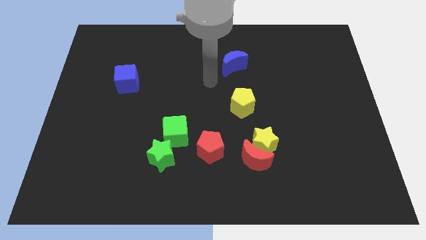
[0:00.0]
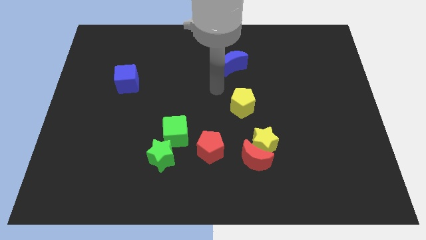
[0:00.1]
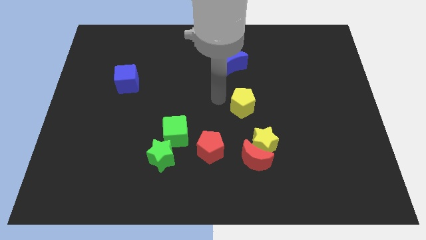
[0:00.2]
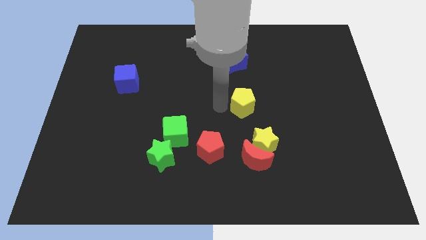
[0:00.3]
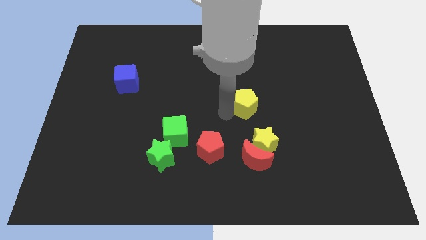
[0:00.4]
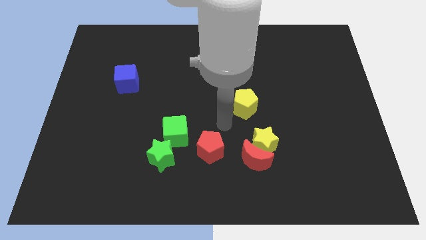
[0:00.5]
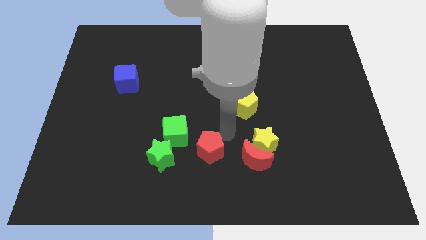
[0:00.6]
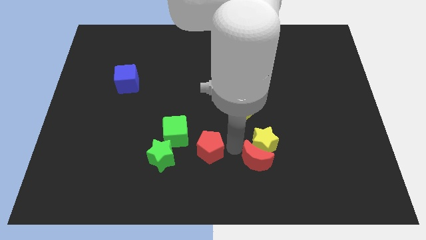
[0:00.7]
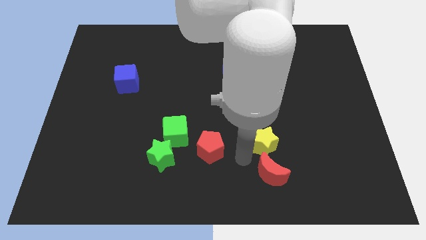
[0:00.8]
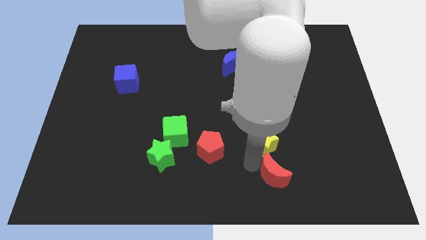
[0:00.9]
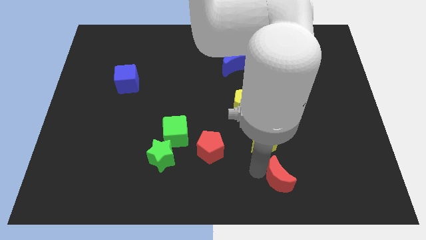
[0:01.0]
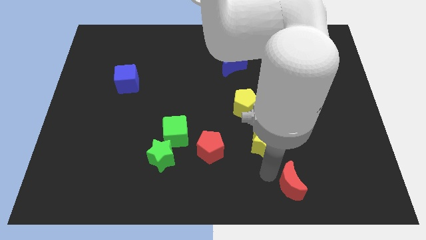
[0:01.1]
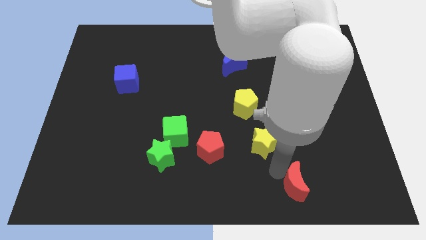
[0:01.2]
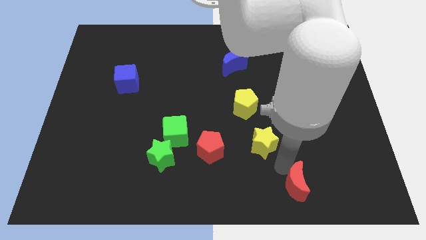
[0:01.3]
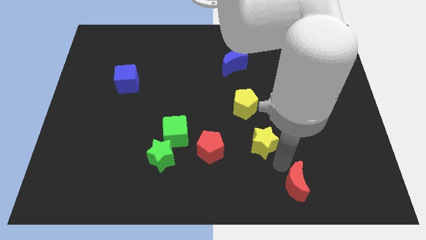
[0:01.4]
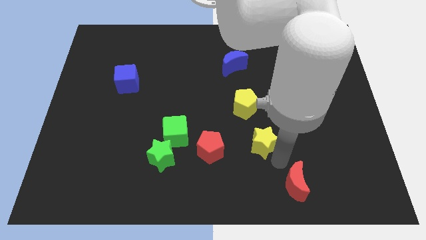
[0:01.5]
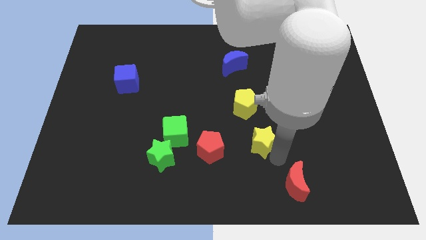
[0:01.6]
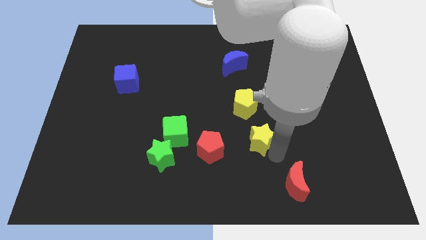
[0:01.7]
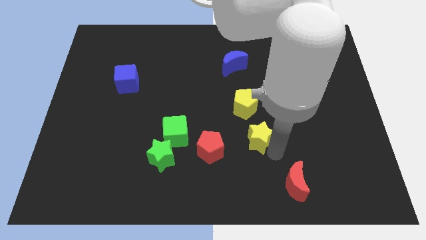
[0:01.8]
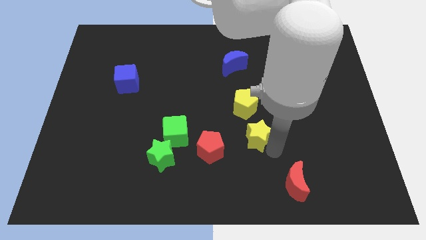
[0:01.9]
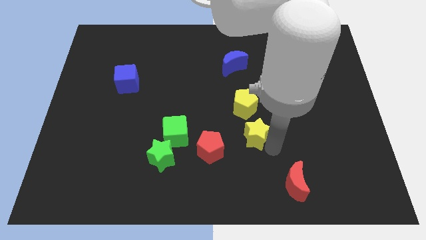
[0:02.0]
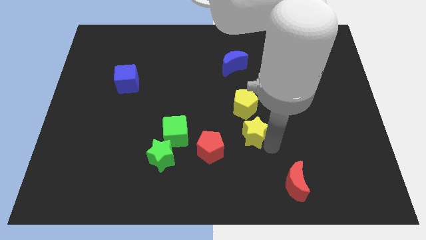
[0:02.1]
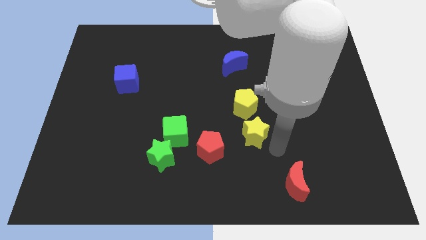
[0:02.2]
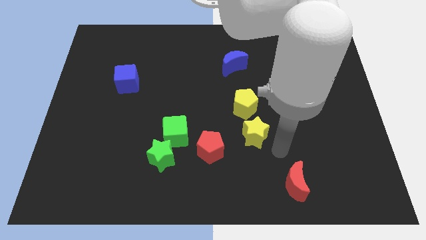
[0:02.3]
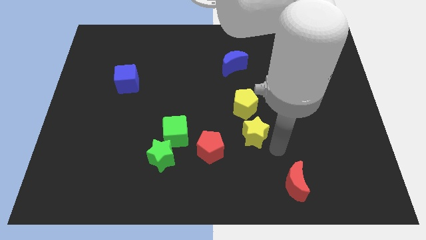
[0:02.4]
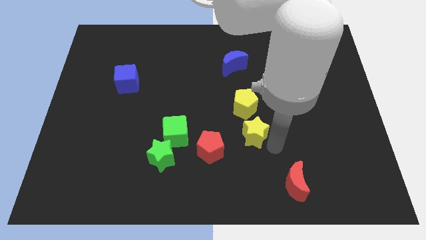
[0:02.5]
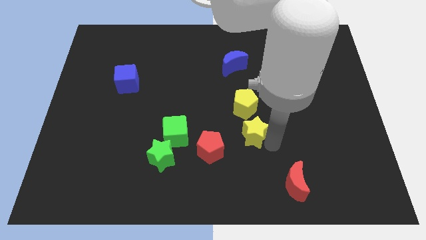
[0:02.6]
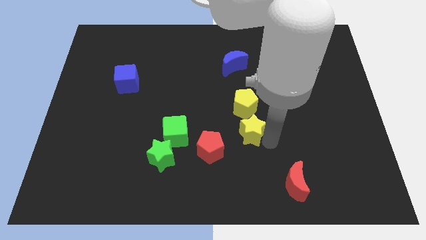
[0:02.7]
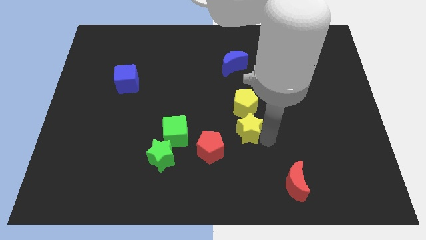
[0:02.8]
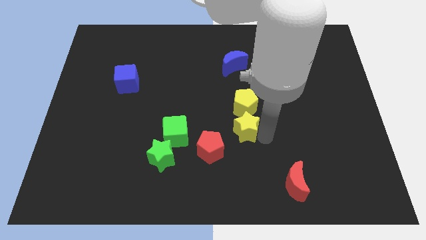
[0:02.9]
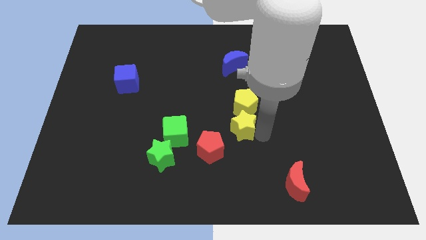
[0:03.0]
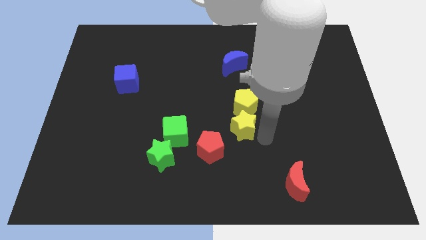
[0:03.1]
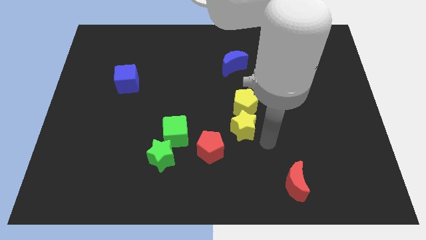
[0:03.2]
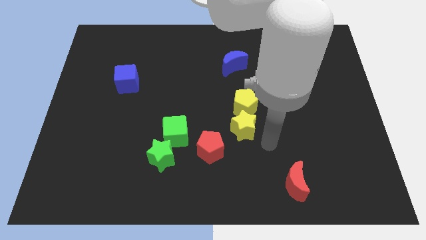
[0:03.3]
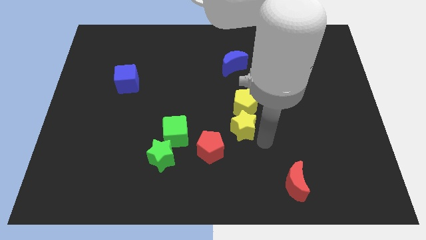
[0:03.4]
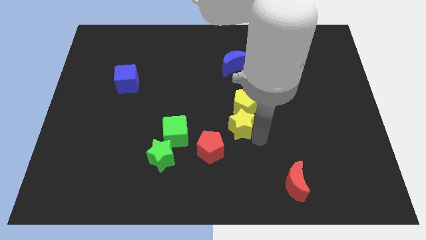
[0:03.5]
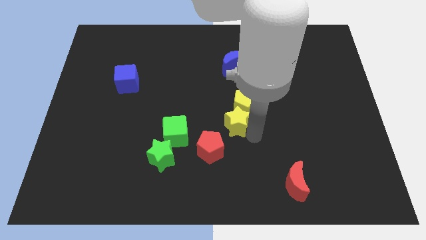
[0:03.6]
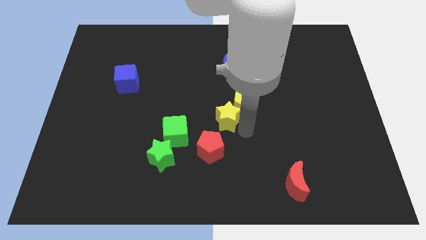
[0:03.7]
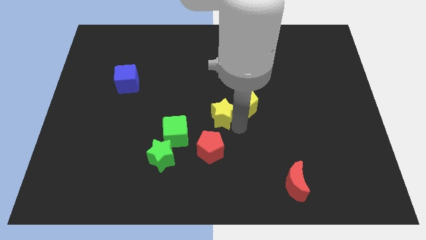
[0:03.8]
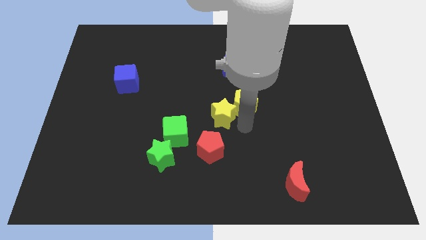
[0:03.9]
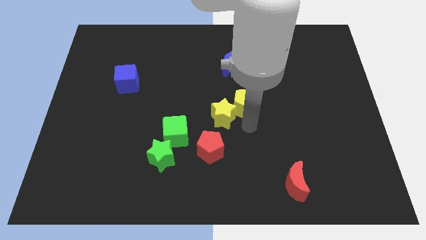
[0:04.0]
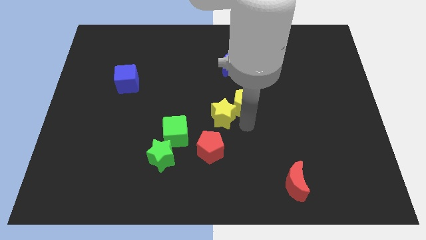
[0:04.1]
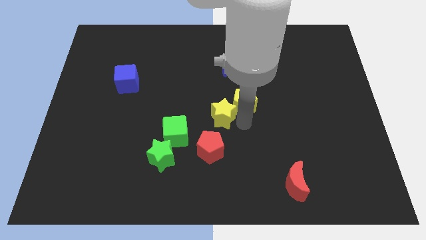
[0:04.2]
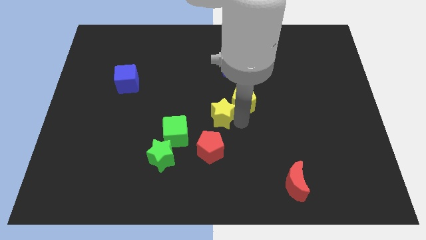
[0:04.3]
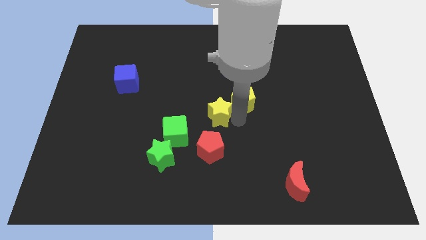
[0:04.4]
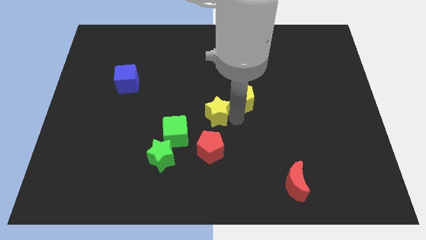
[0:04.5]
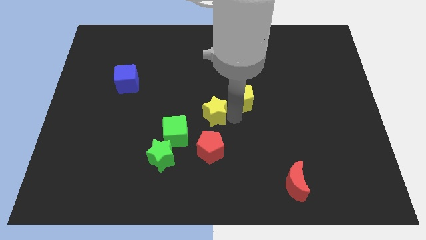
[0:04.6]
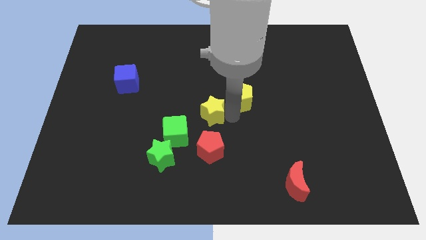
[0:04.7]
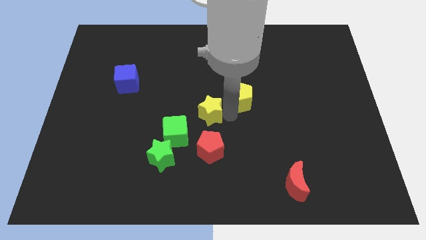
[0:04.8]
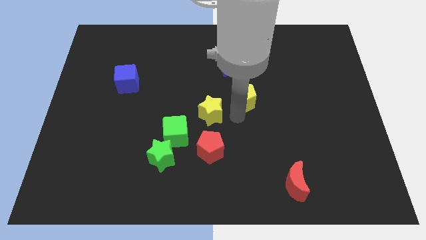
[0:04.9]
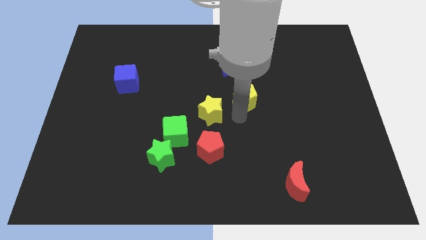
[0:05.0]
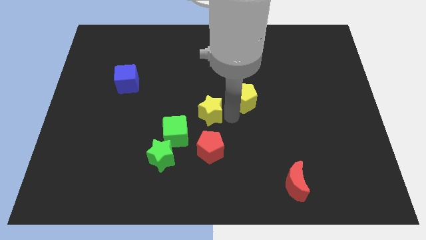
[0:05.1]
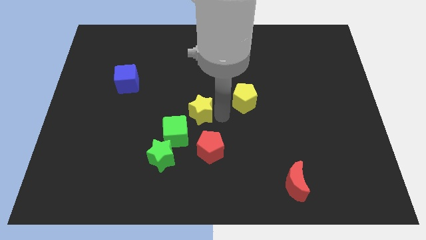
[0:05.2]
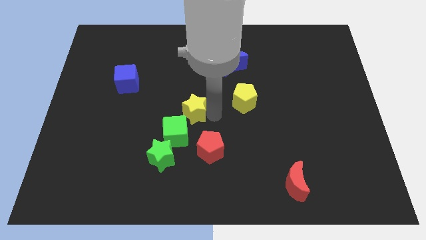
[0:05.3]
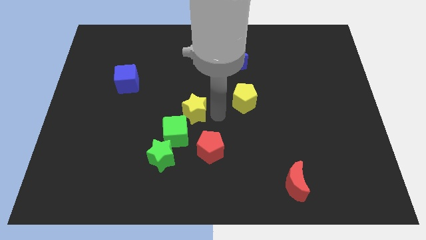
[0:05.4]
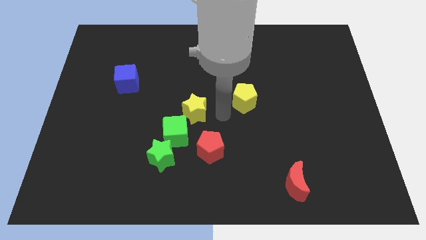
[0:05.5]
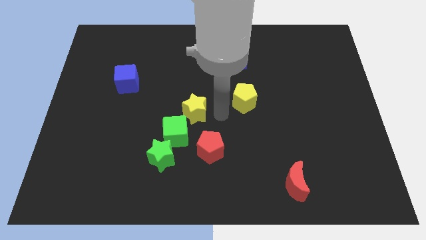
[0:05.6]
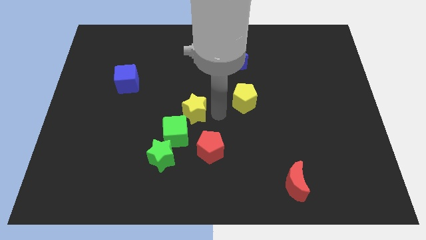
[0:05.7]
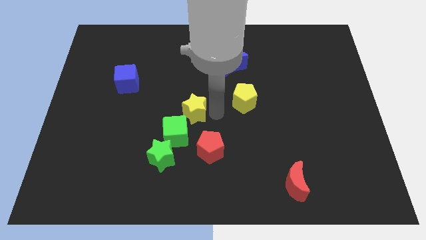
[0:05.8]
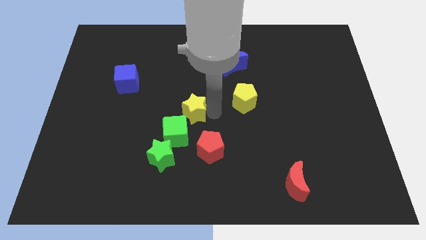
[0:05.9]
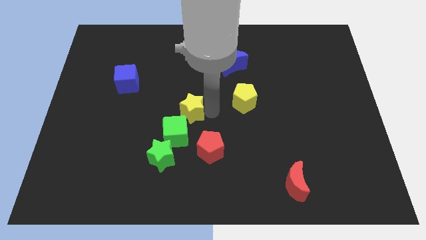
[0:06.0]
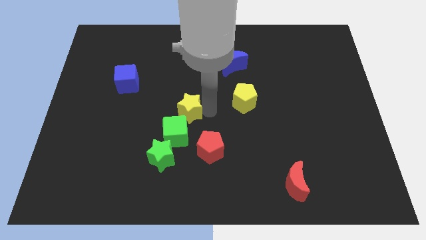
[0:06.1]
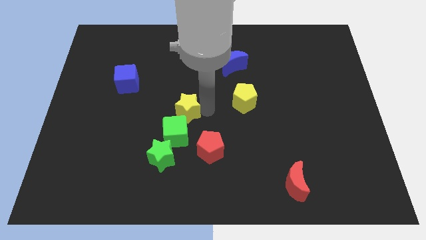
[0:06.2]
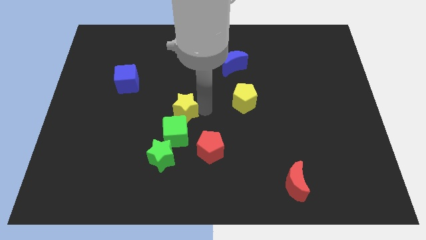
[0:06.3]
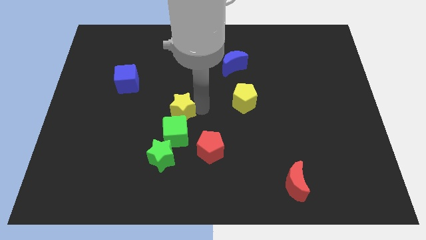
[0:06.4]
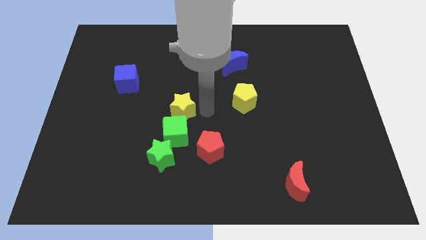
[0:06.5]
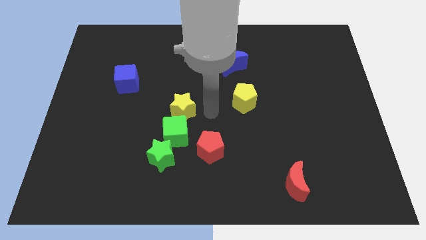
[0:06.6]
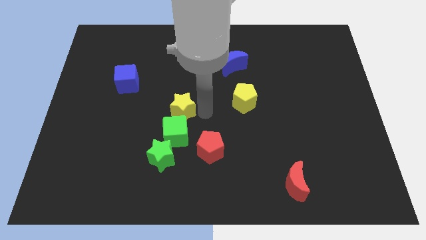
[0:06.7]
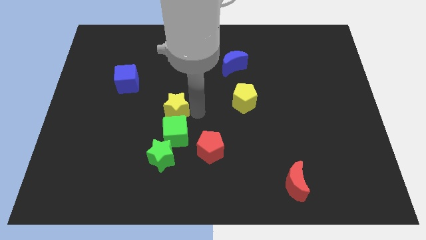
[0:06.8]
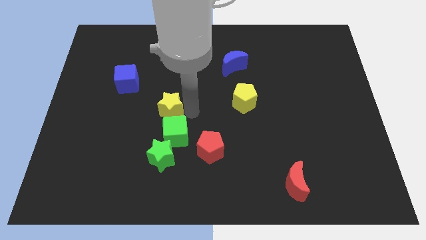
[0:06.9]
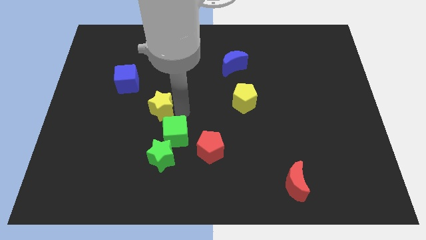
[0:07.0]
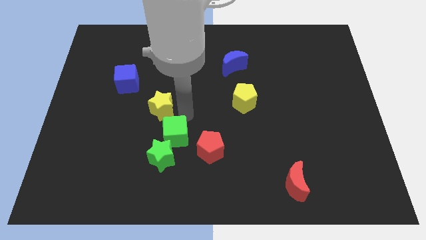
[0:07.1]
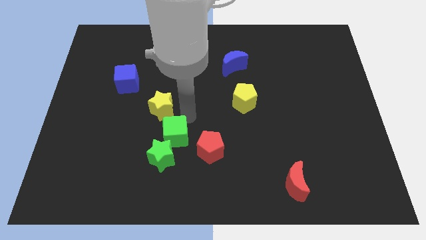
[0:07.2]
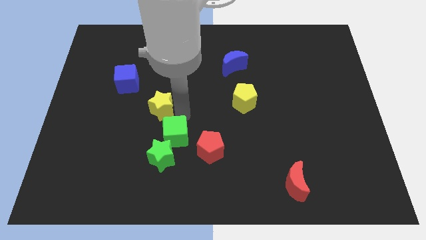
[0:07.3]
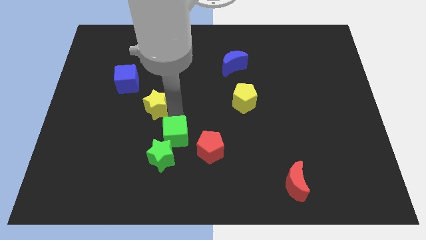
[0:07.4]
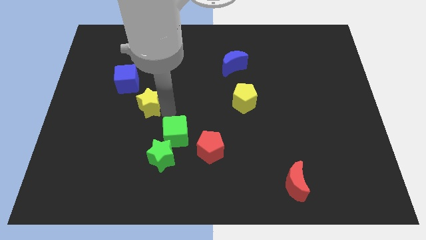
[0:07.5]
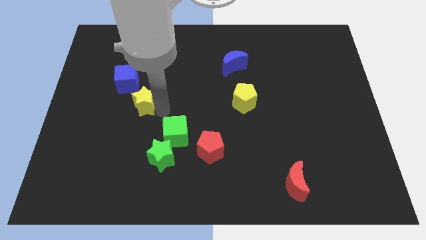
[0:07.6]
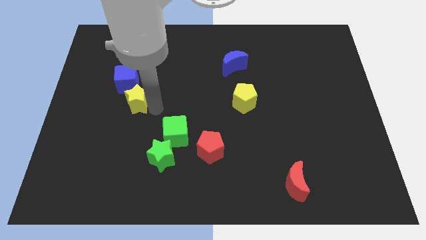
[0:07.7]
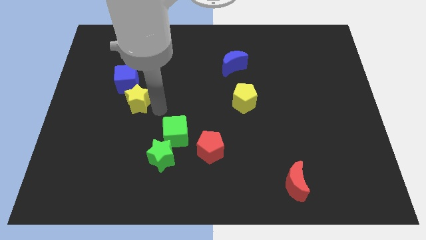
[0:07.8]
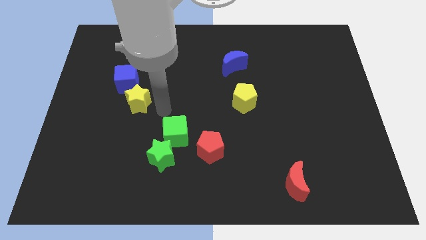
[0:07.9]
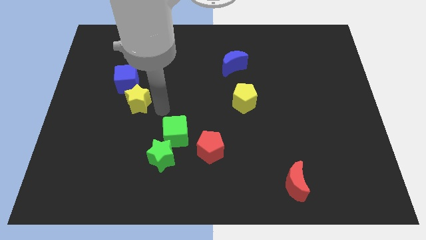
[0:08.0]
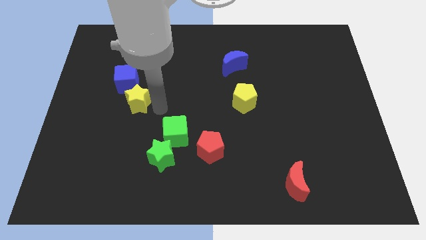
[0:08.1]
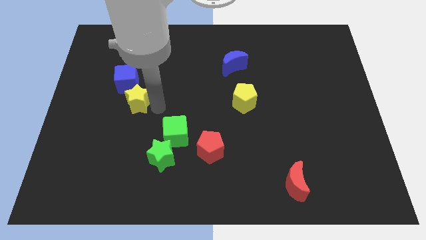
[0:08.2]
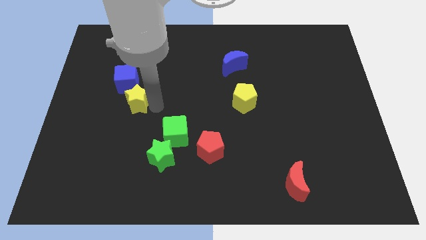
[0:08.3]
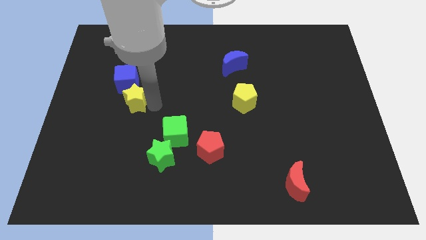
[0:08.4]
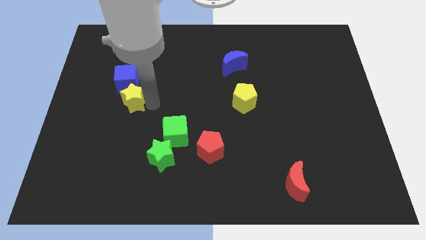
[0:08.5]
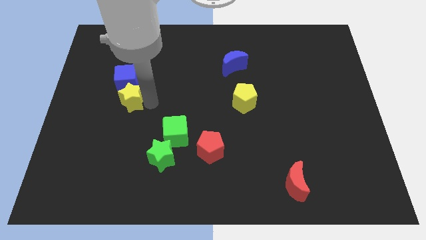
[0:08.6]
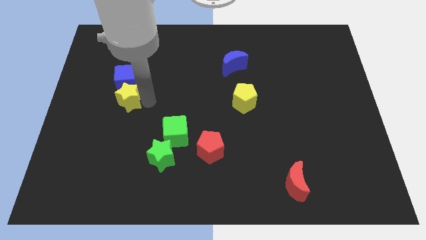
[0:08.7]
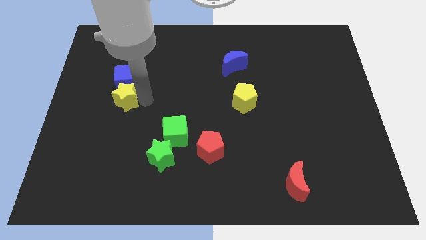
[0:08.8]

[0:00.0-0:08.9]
slide the yellow star to the bottom left of the blue cube
